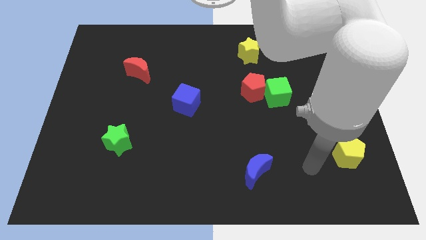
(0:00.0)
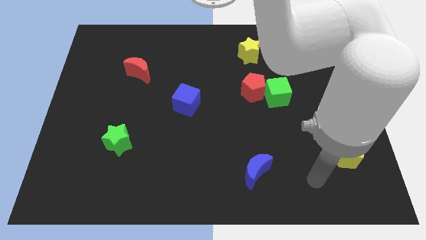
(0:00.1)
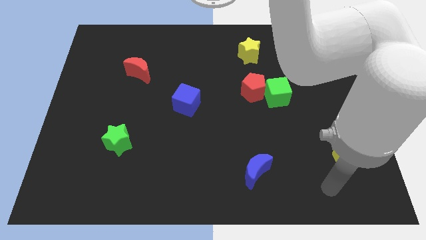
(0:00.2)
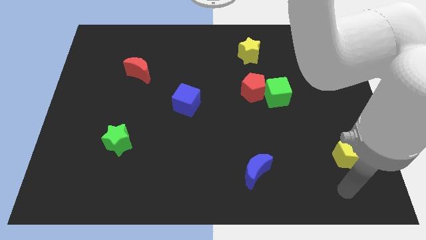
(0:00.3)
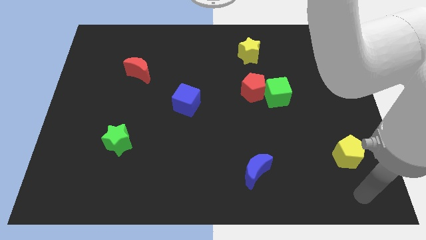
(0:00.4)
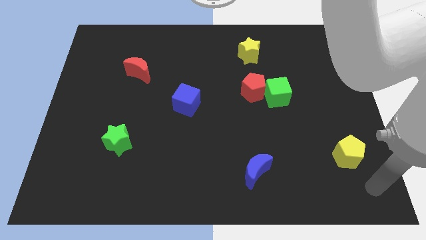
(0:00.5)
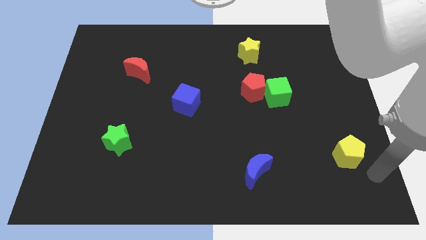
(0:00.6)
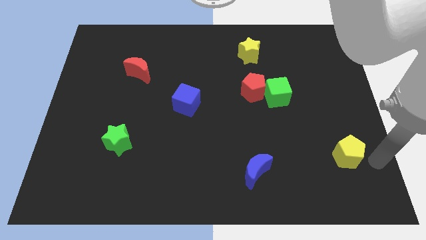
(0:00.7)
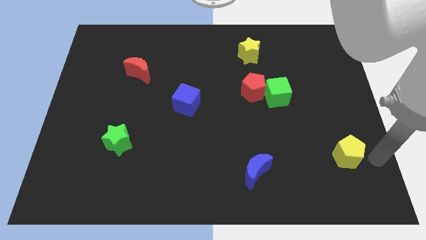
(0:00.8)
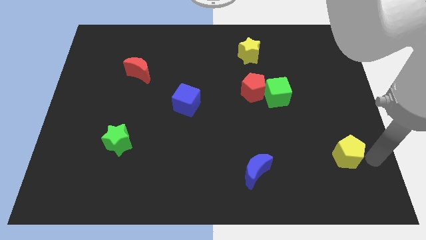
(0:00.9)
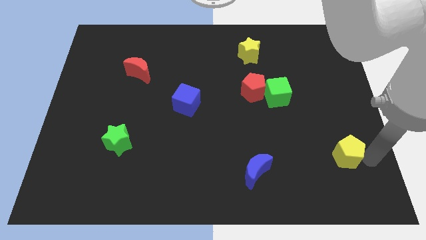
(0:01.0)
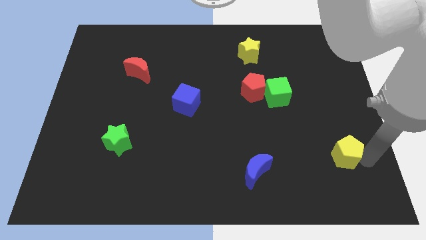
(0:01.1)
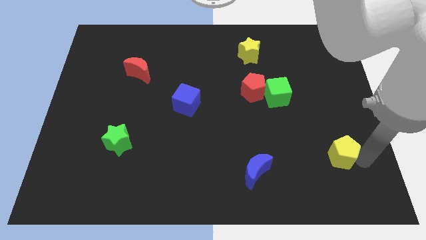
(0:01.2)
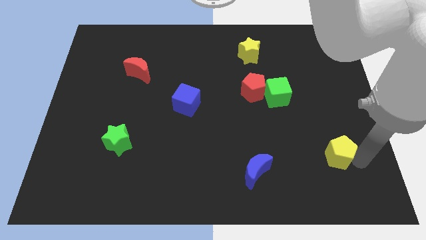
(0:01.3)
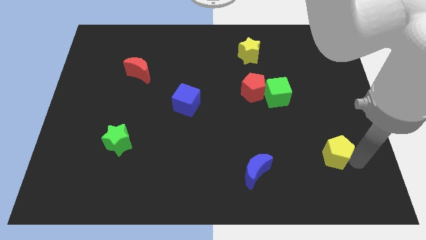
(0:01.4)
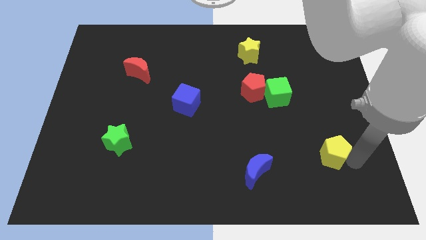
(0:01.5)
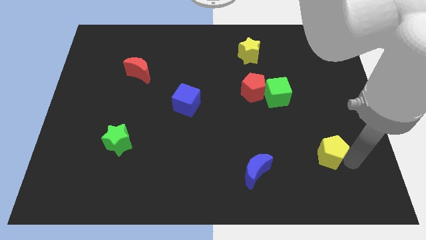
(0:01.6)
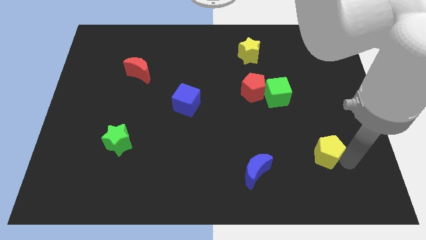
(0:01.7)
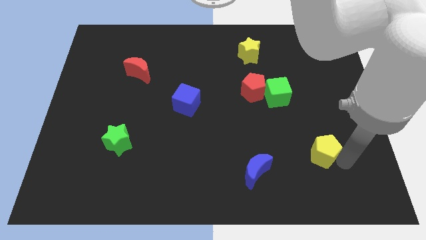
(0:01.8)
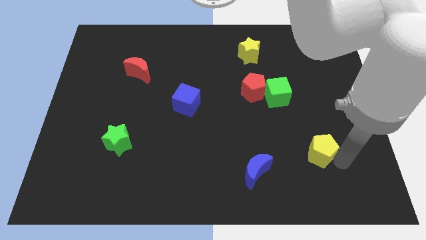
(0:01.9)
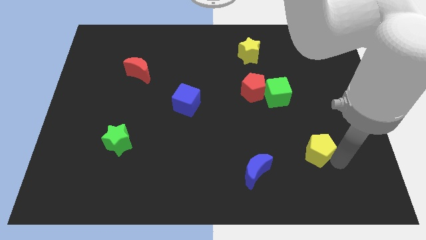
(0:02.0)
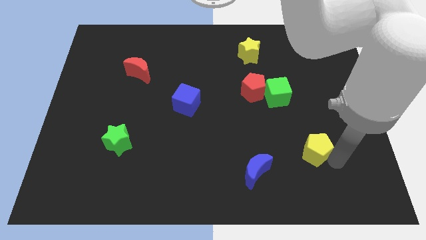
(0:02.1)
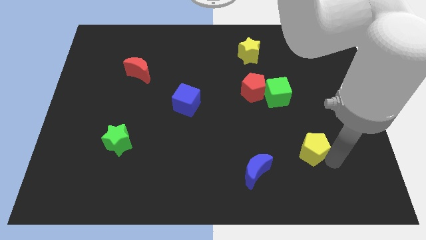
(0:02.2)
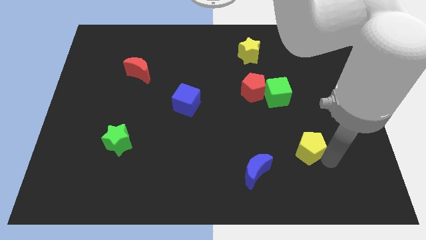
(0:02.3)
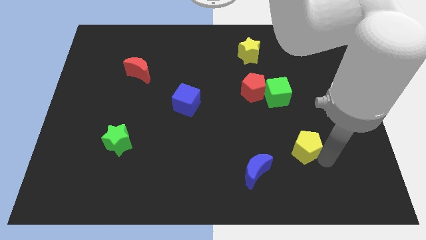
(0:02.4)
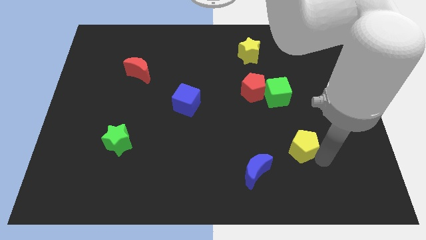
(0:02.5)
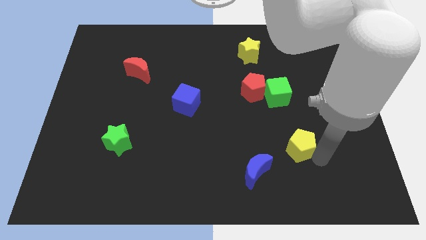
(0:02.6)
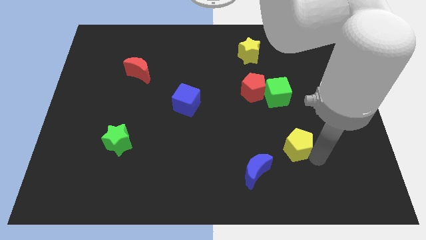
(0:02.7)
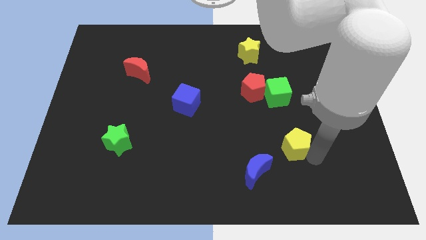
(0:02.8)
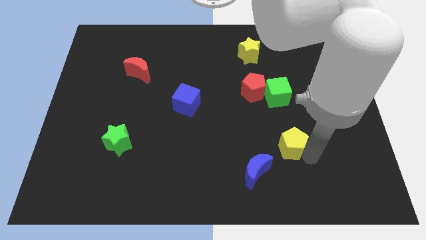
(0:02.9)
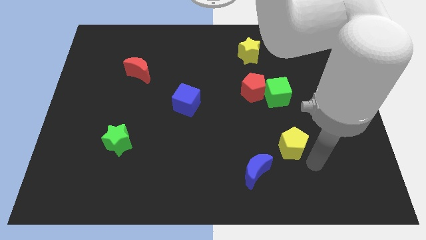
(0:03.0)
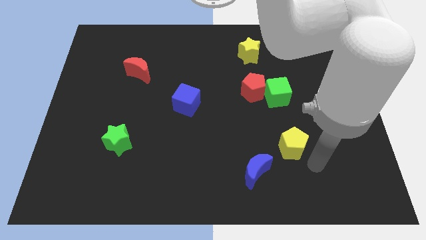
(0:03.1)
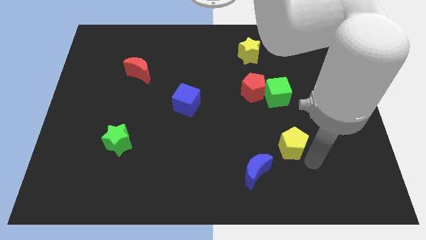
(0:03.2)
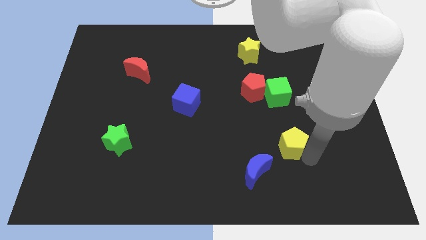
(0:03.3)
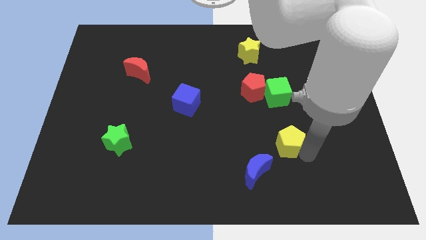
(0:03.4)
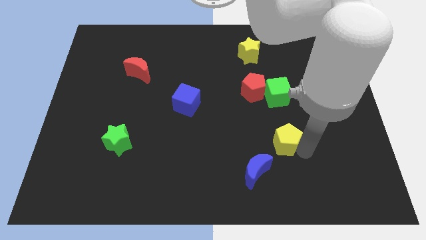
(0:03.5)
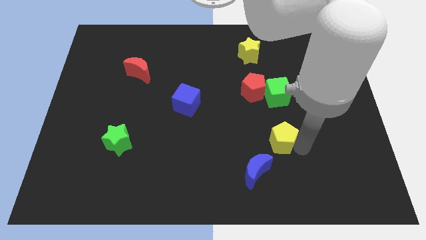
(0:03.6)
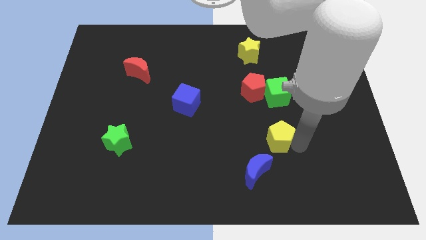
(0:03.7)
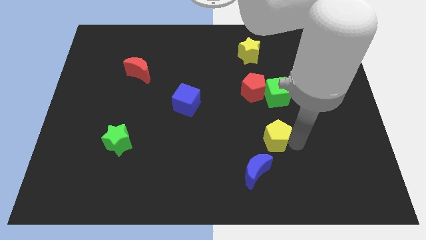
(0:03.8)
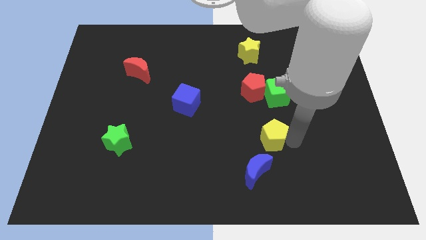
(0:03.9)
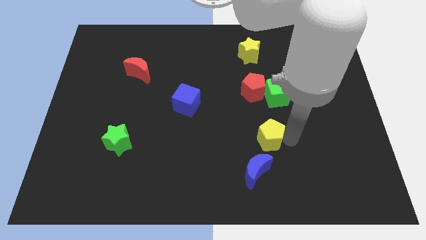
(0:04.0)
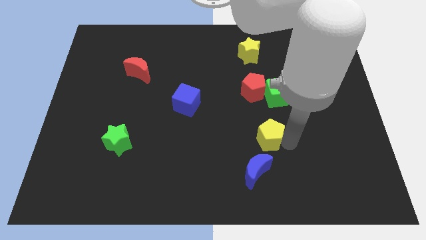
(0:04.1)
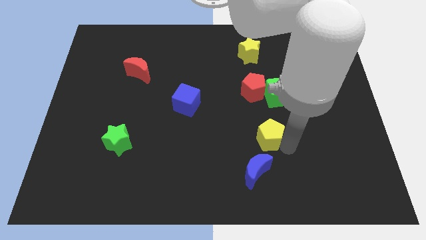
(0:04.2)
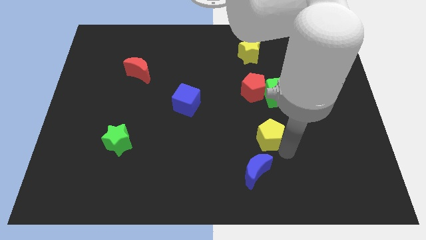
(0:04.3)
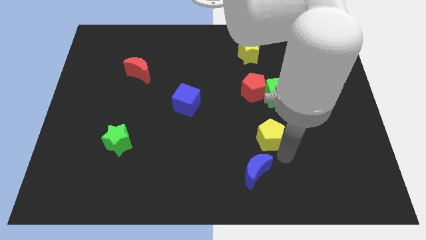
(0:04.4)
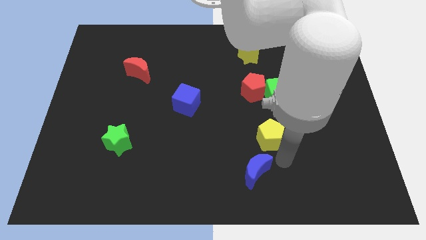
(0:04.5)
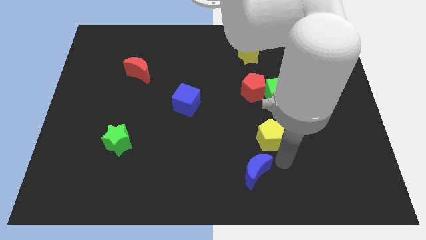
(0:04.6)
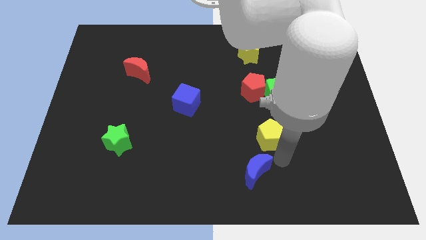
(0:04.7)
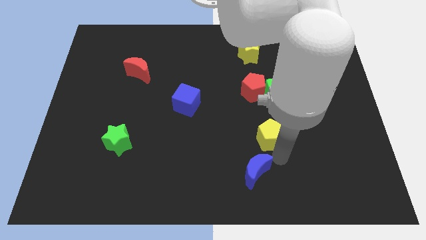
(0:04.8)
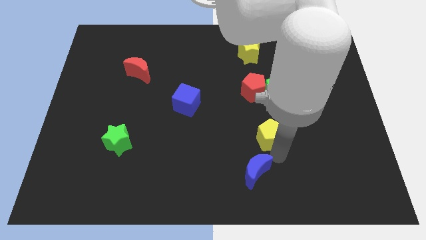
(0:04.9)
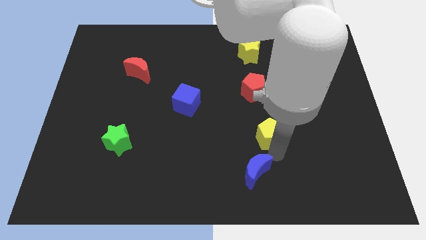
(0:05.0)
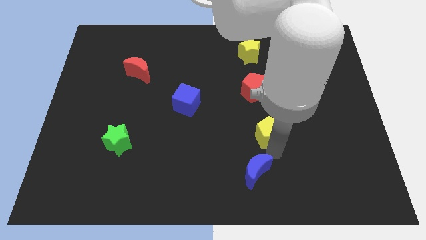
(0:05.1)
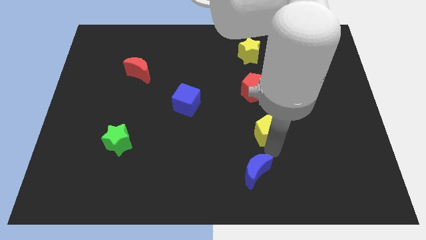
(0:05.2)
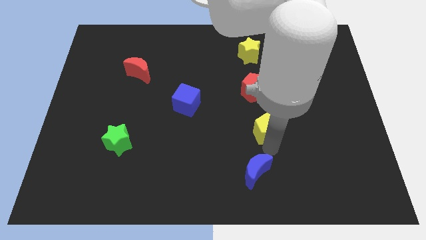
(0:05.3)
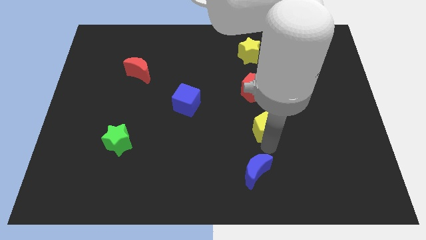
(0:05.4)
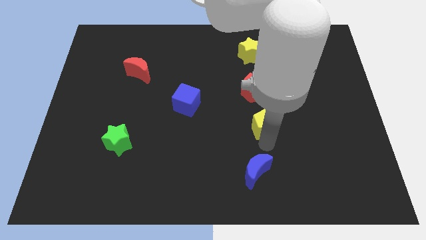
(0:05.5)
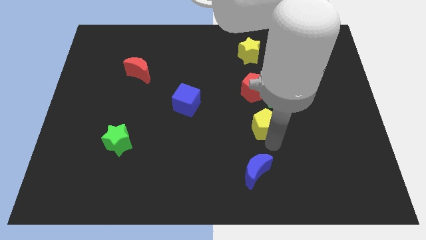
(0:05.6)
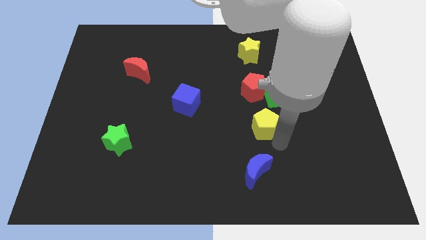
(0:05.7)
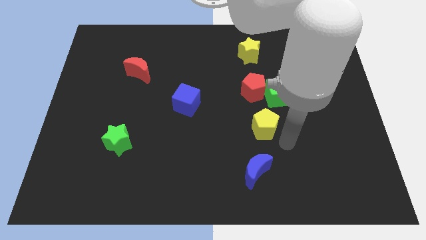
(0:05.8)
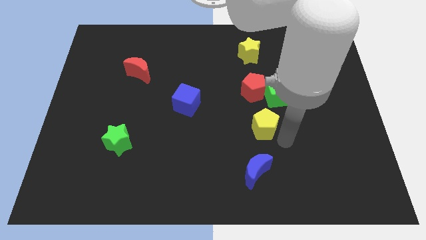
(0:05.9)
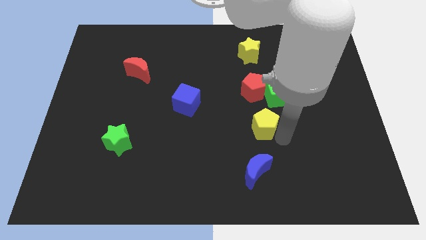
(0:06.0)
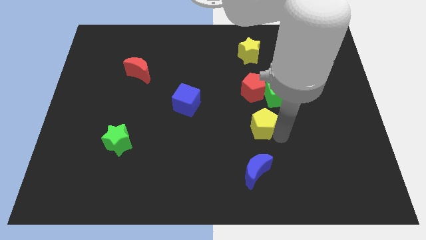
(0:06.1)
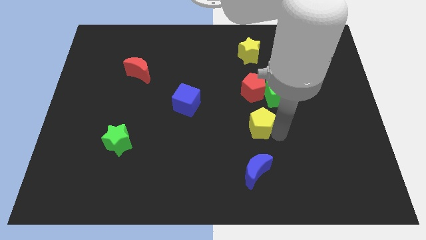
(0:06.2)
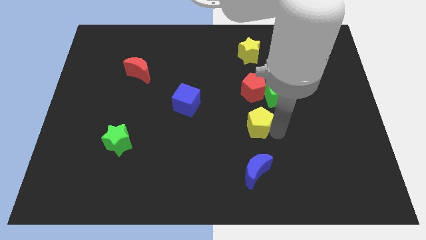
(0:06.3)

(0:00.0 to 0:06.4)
push the yellow pentagon to the middle
